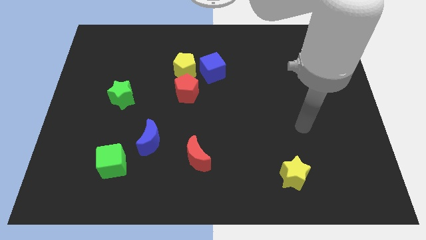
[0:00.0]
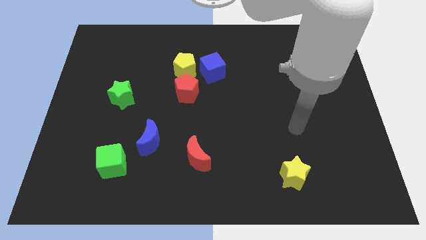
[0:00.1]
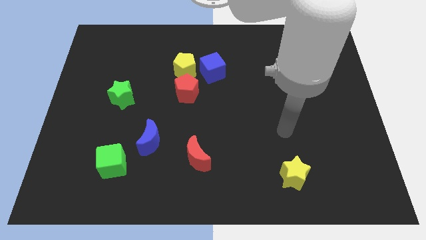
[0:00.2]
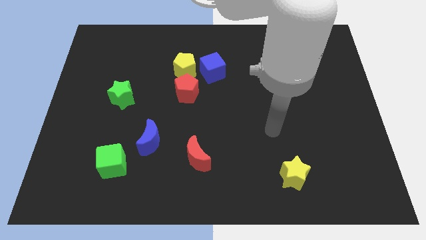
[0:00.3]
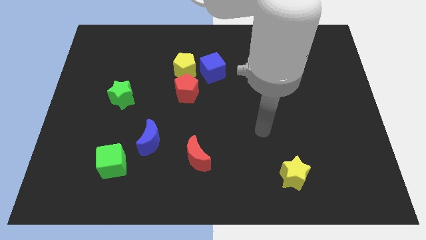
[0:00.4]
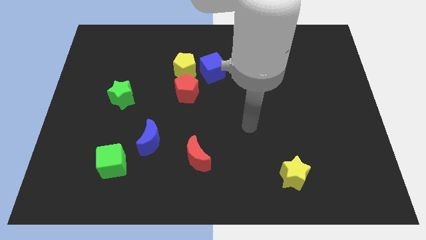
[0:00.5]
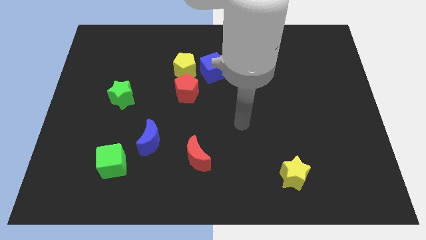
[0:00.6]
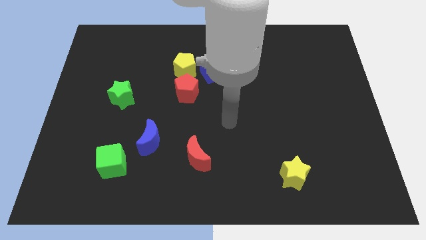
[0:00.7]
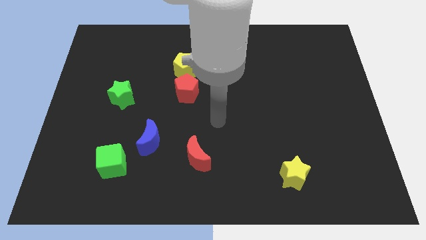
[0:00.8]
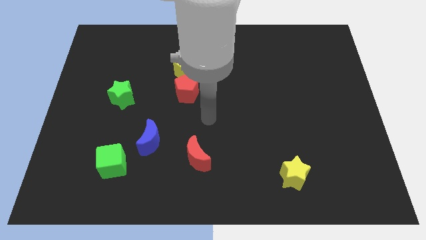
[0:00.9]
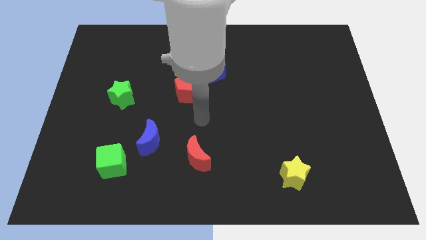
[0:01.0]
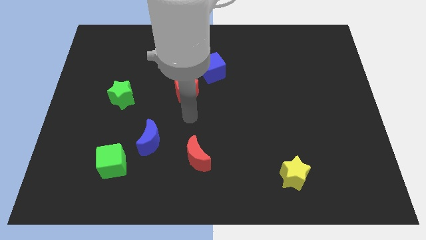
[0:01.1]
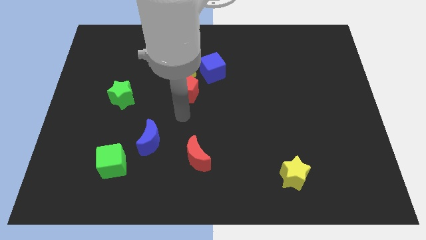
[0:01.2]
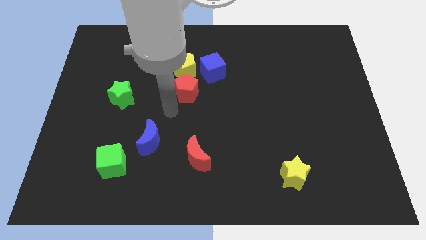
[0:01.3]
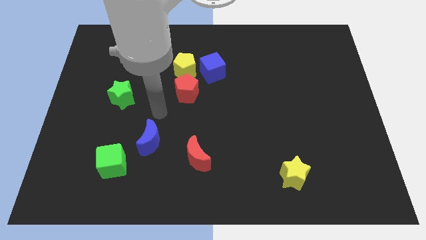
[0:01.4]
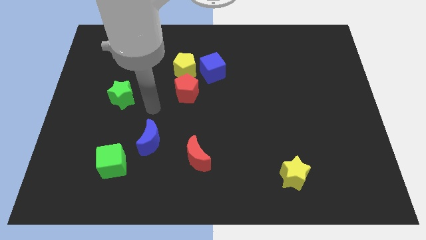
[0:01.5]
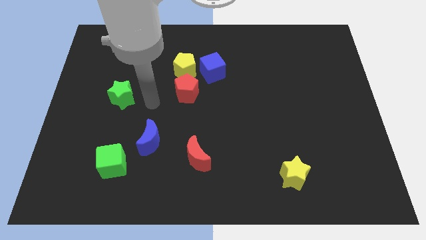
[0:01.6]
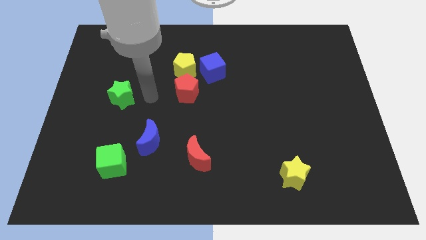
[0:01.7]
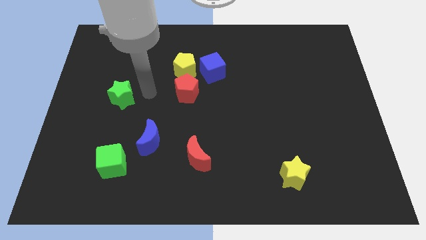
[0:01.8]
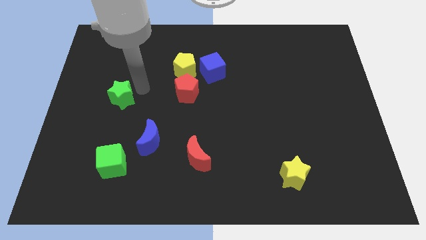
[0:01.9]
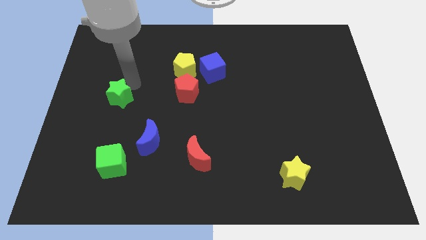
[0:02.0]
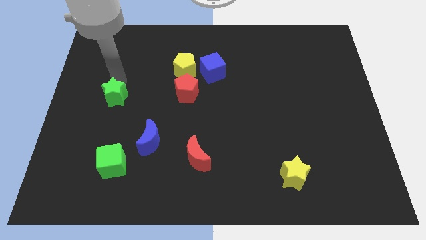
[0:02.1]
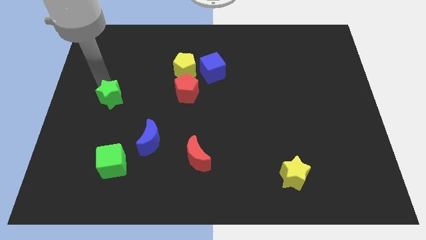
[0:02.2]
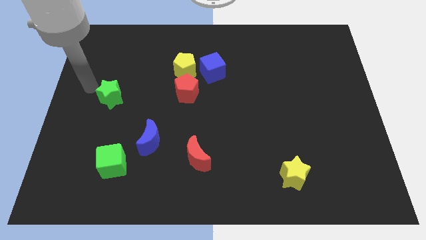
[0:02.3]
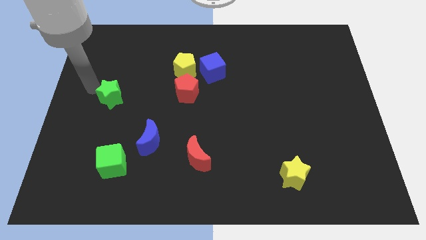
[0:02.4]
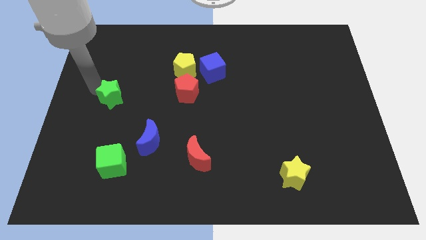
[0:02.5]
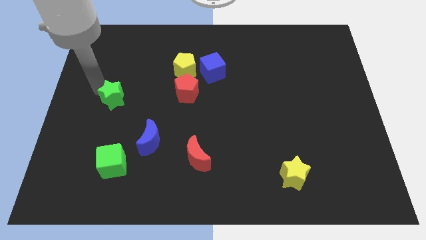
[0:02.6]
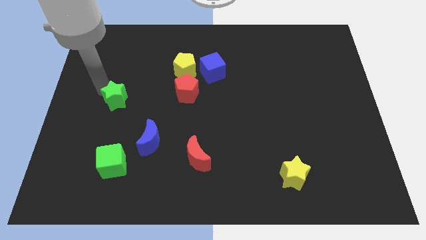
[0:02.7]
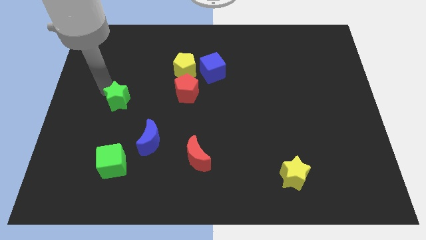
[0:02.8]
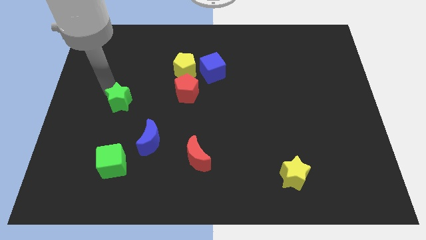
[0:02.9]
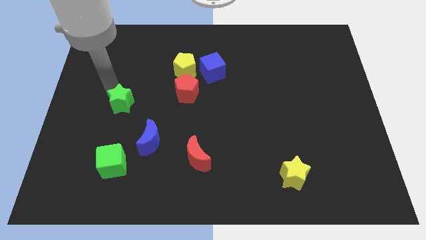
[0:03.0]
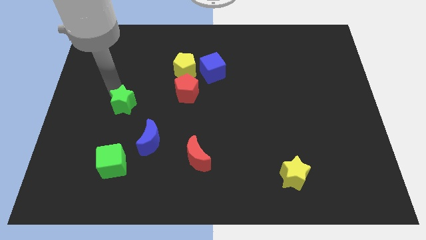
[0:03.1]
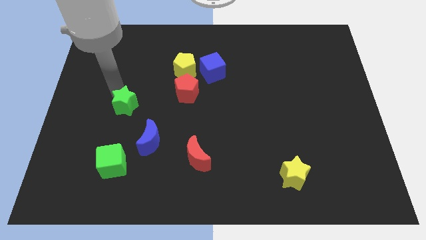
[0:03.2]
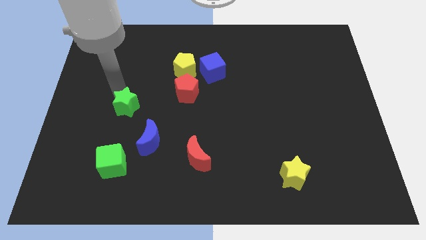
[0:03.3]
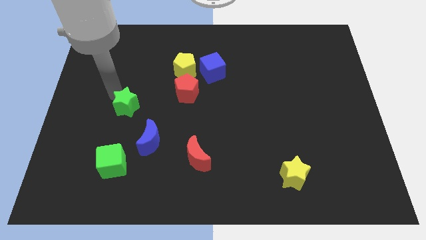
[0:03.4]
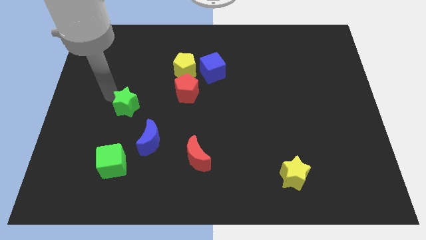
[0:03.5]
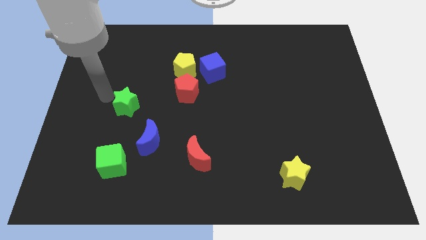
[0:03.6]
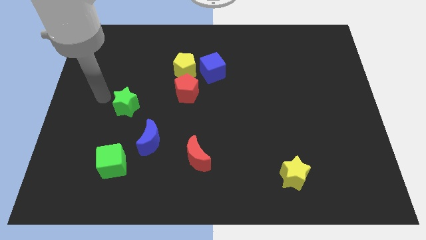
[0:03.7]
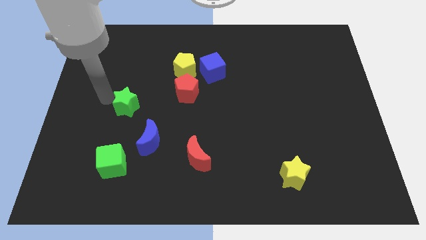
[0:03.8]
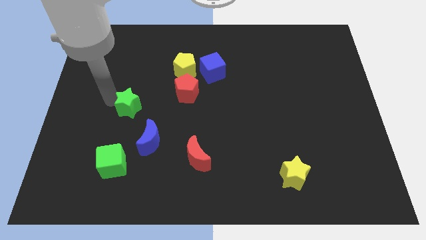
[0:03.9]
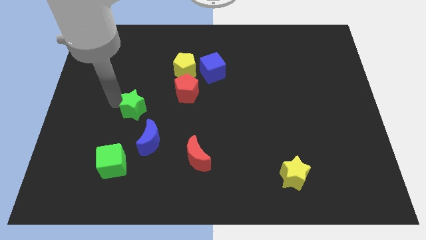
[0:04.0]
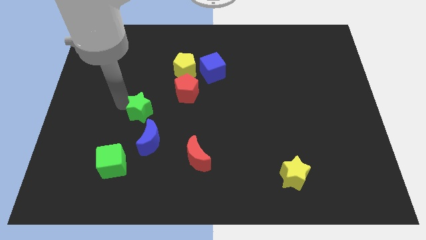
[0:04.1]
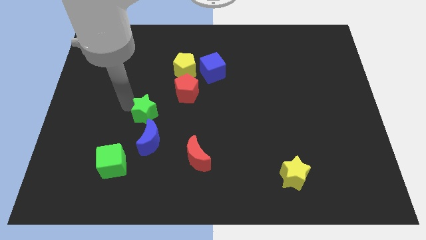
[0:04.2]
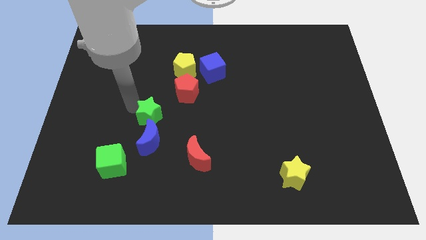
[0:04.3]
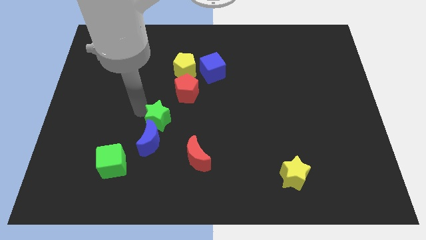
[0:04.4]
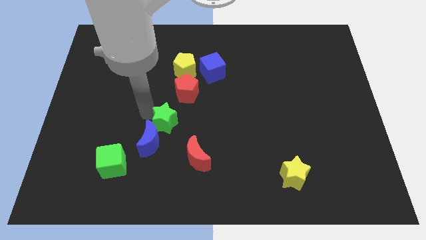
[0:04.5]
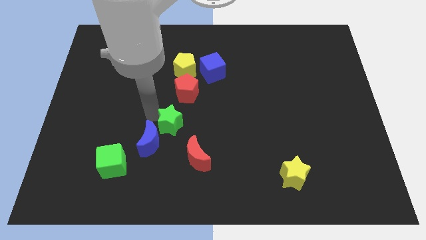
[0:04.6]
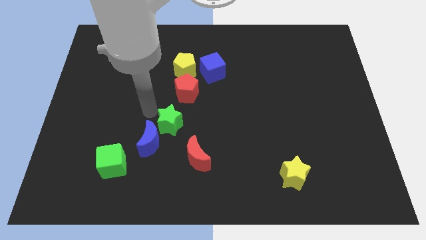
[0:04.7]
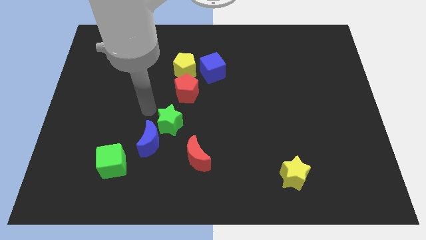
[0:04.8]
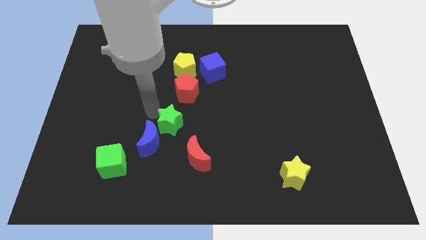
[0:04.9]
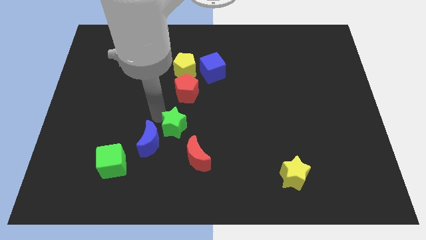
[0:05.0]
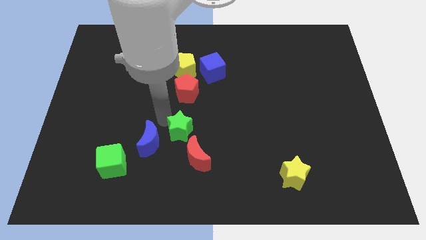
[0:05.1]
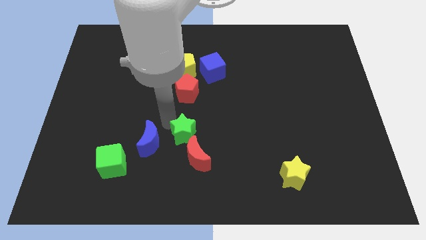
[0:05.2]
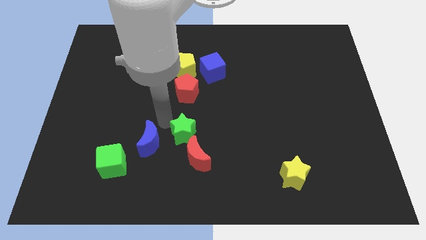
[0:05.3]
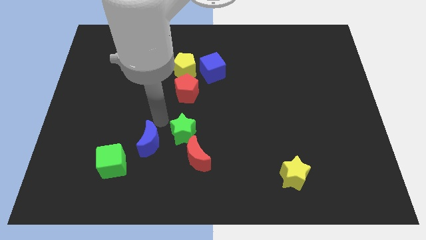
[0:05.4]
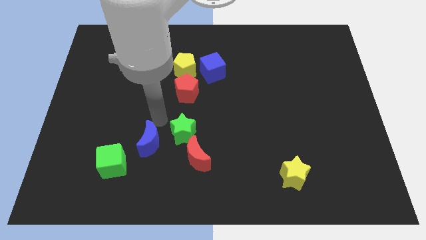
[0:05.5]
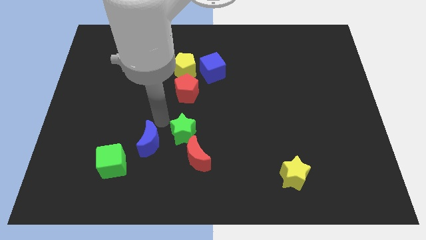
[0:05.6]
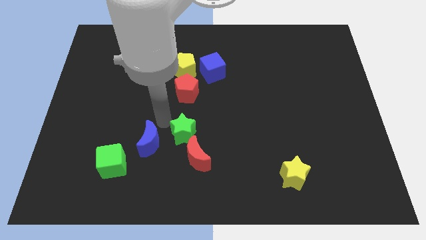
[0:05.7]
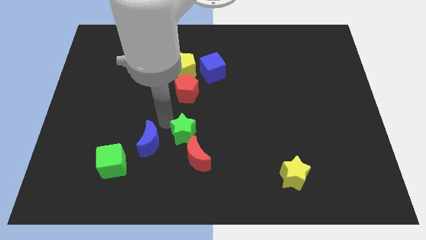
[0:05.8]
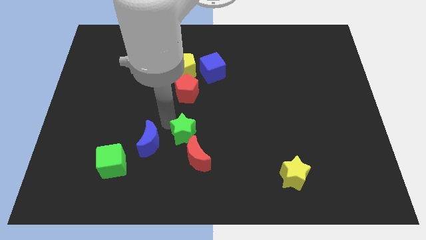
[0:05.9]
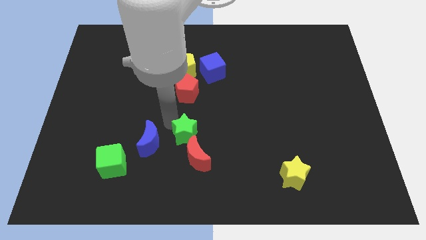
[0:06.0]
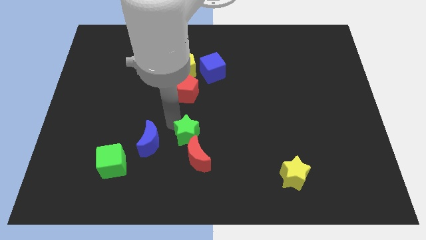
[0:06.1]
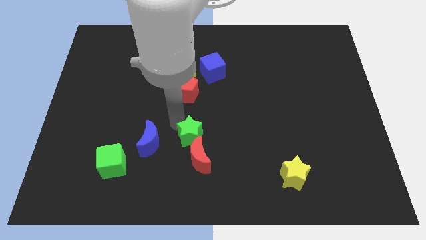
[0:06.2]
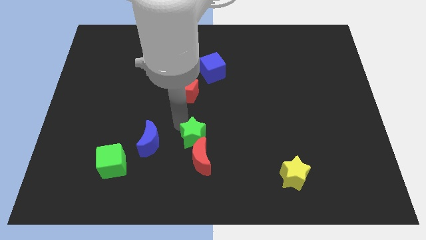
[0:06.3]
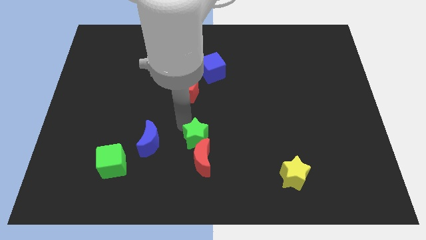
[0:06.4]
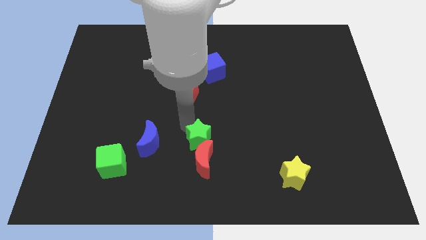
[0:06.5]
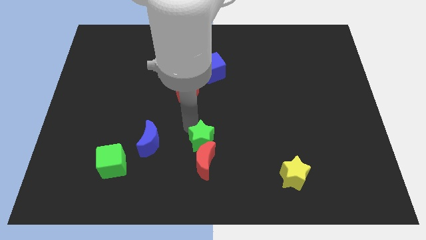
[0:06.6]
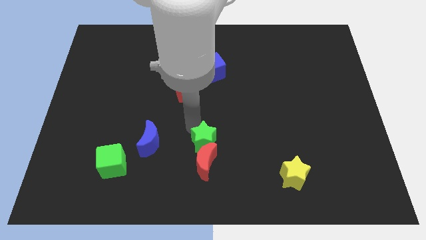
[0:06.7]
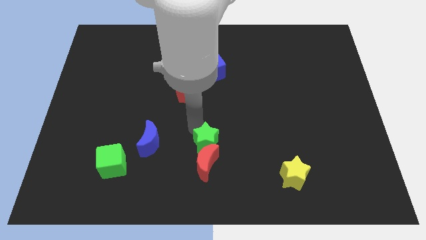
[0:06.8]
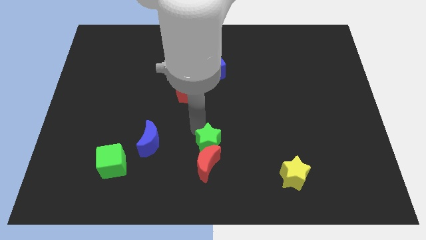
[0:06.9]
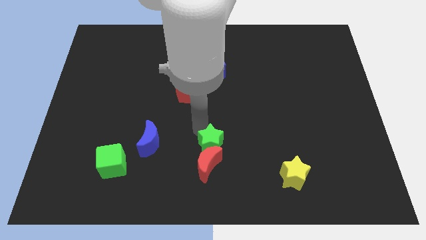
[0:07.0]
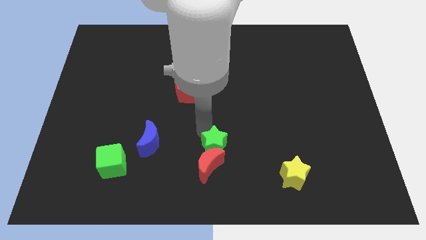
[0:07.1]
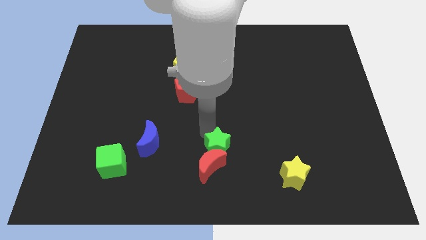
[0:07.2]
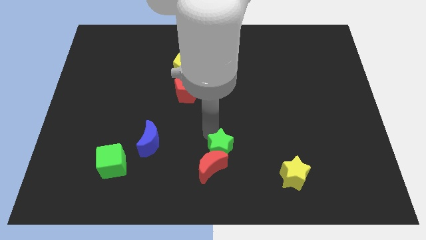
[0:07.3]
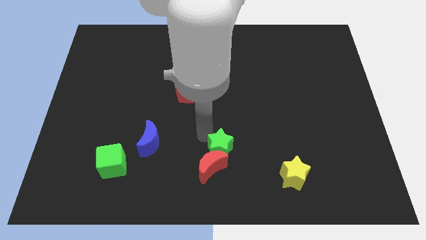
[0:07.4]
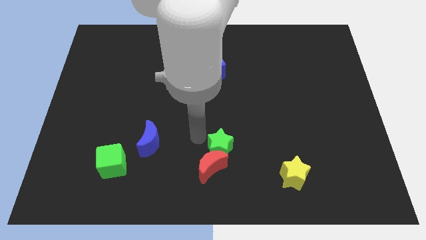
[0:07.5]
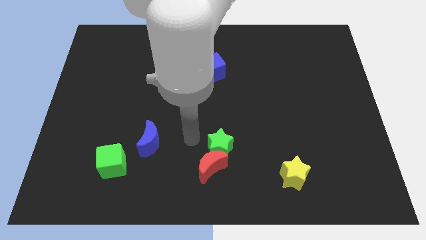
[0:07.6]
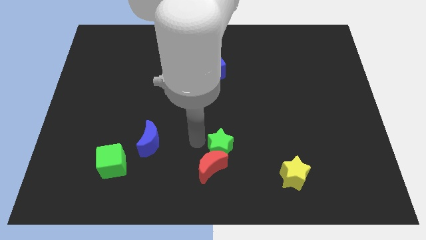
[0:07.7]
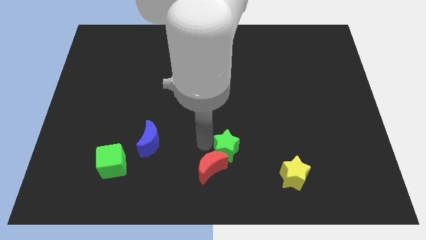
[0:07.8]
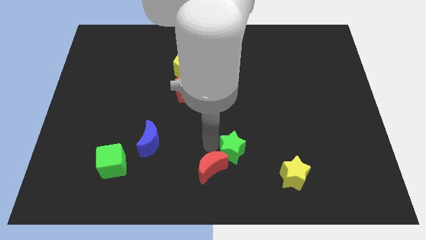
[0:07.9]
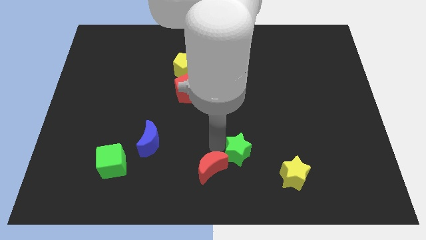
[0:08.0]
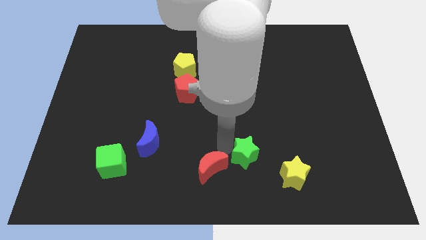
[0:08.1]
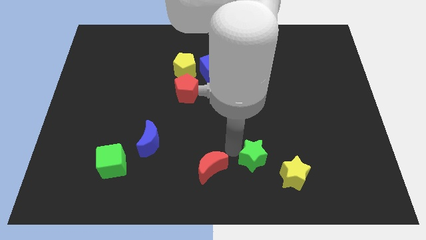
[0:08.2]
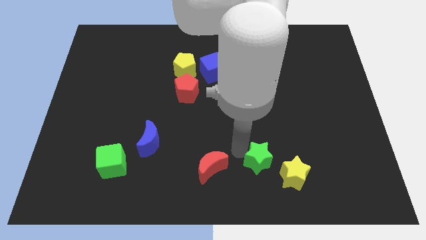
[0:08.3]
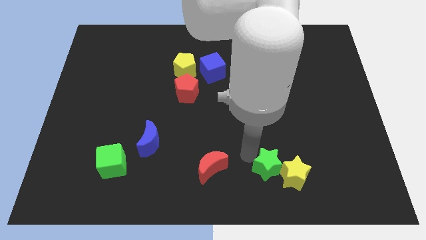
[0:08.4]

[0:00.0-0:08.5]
move the green star towards the yellow star
